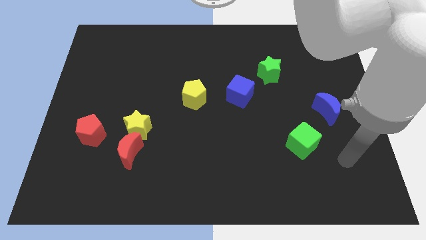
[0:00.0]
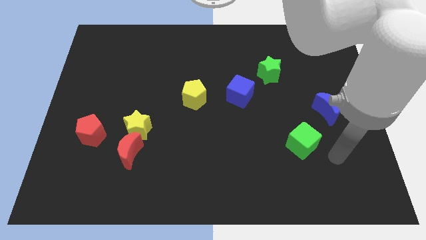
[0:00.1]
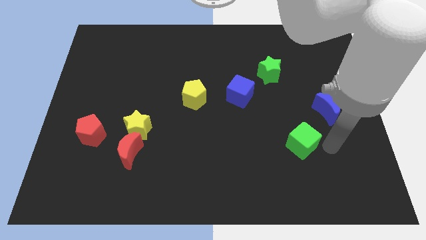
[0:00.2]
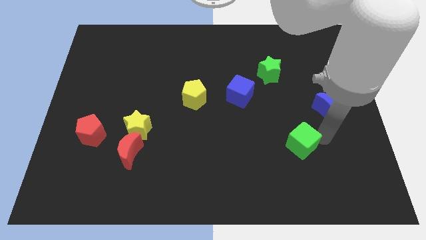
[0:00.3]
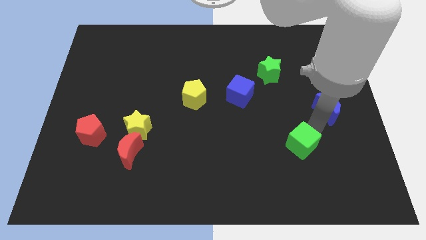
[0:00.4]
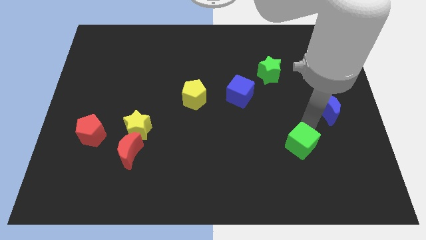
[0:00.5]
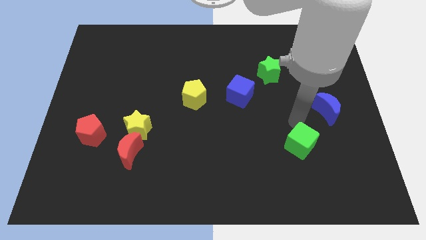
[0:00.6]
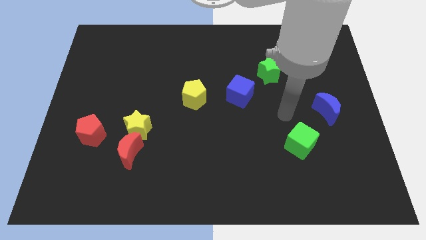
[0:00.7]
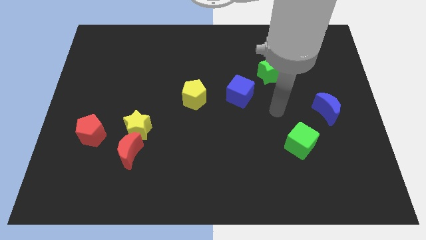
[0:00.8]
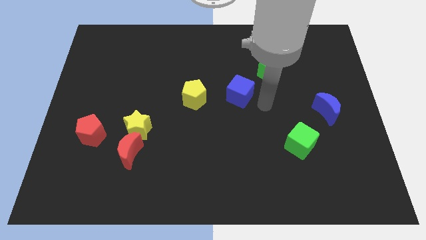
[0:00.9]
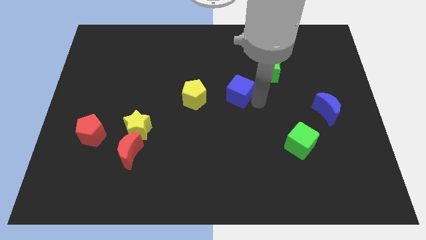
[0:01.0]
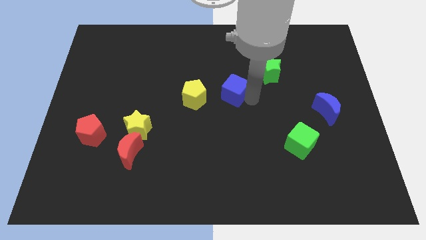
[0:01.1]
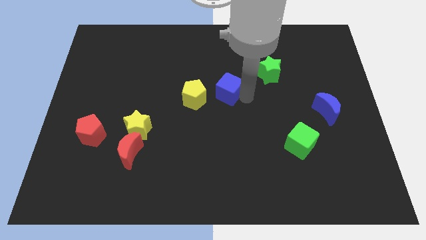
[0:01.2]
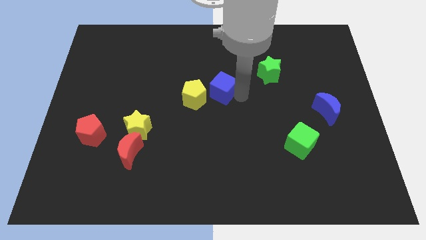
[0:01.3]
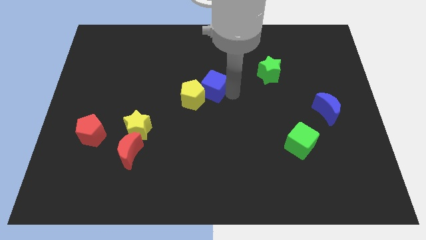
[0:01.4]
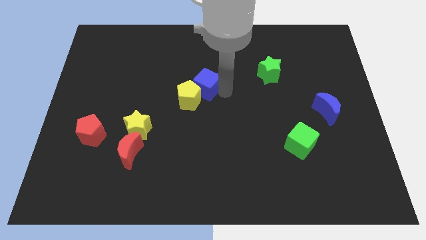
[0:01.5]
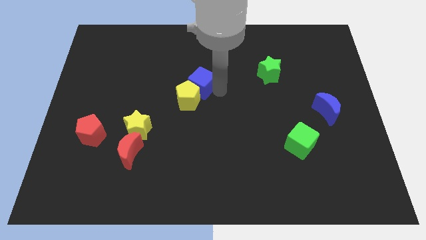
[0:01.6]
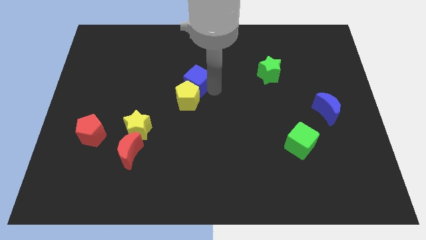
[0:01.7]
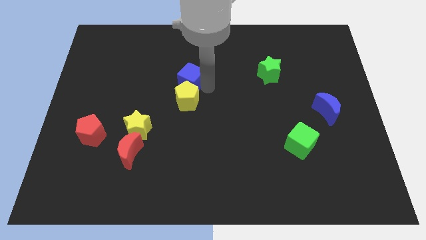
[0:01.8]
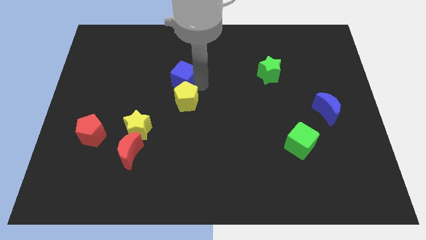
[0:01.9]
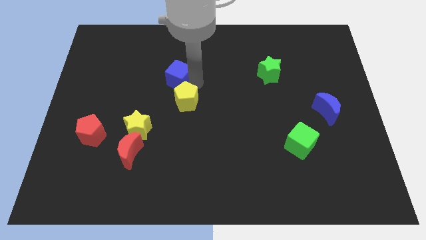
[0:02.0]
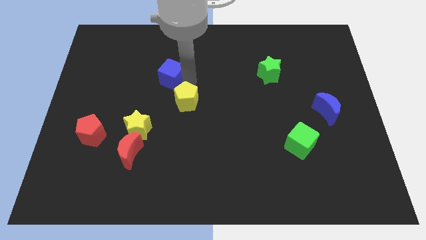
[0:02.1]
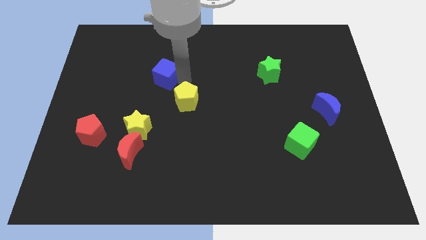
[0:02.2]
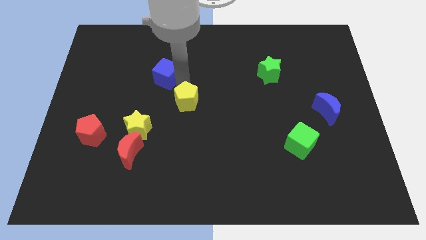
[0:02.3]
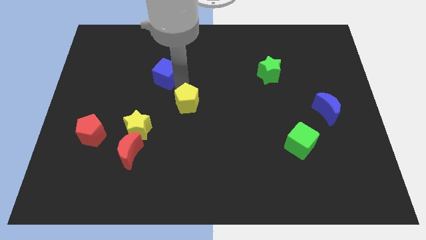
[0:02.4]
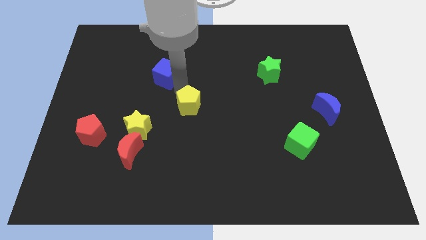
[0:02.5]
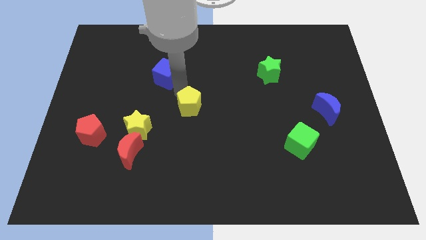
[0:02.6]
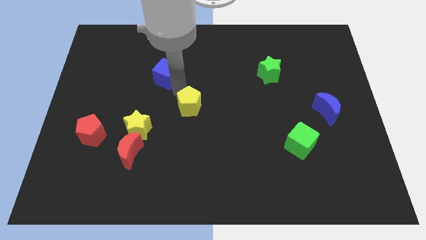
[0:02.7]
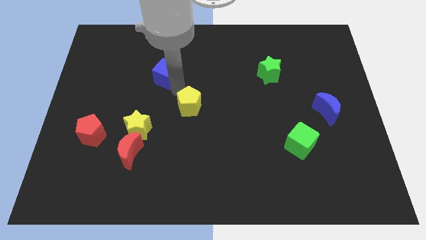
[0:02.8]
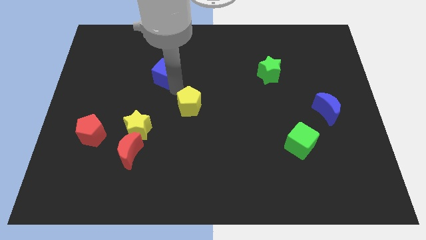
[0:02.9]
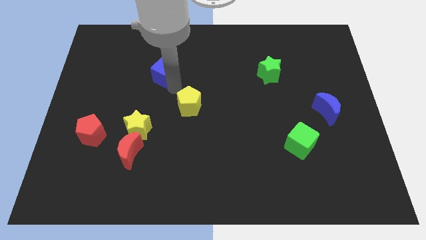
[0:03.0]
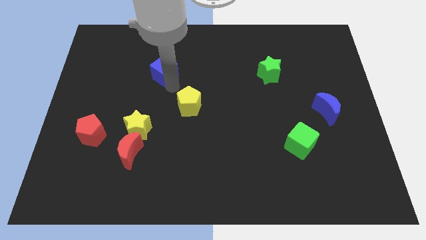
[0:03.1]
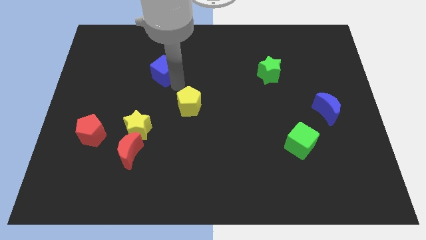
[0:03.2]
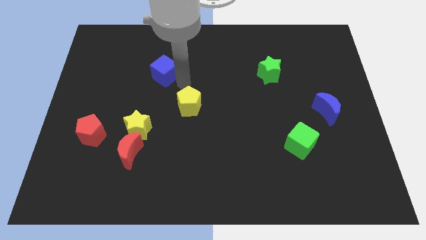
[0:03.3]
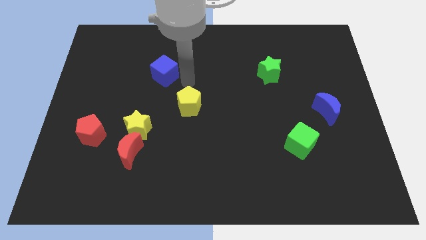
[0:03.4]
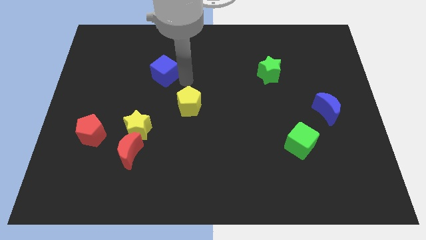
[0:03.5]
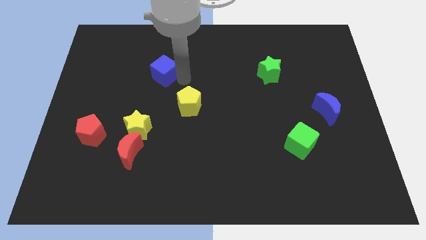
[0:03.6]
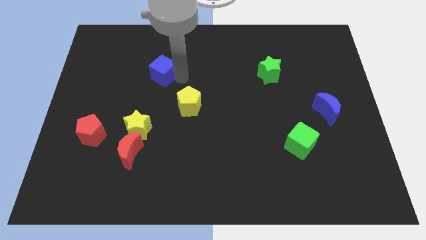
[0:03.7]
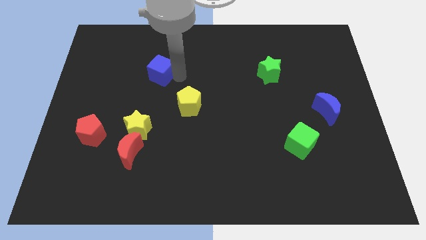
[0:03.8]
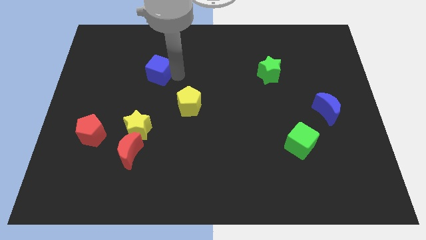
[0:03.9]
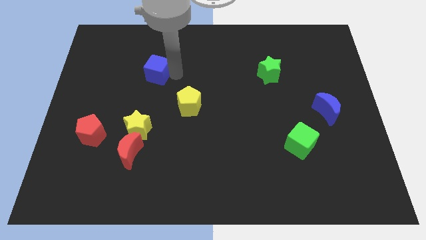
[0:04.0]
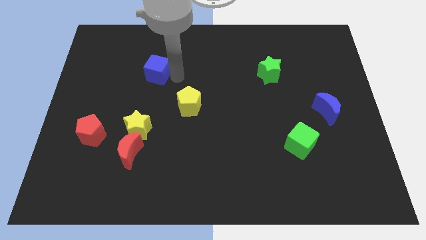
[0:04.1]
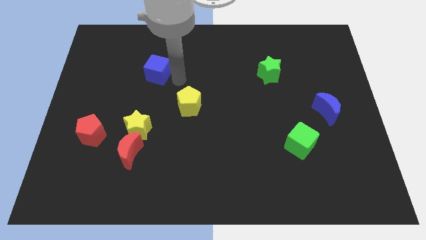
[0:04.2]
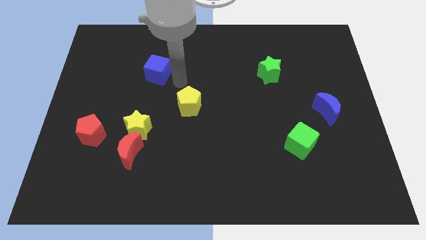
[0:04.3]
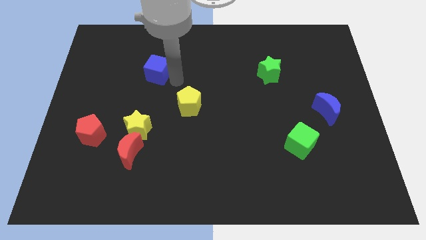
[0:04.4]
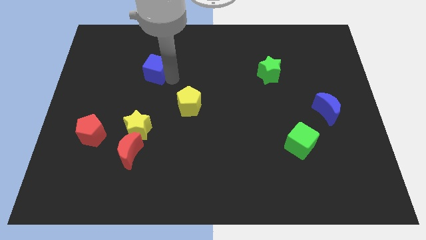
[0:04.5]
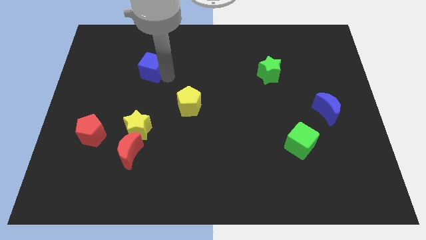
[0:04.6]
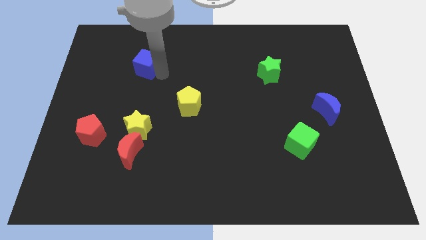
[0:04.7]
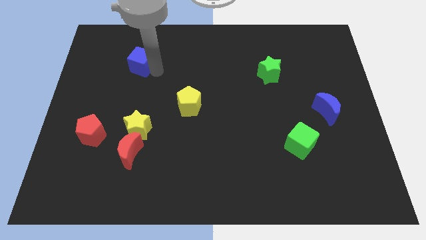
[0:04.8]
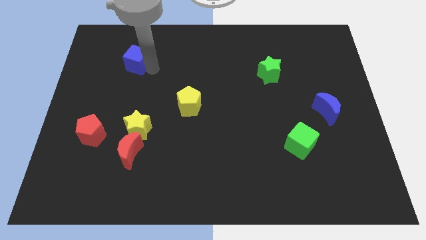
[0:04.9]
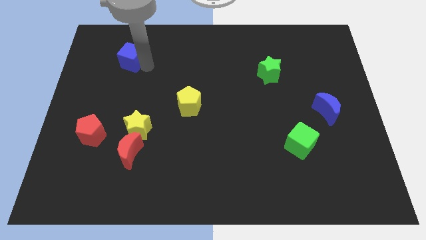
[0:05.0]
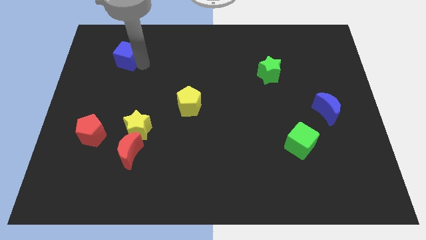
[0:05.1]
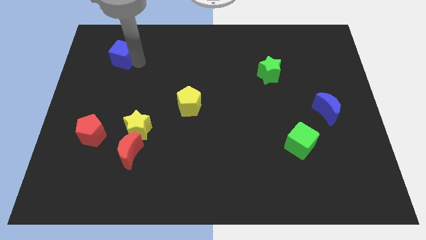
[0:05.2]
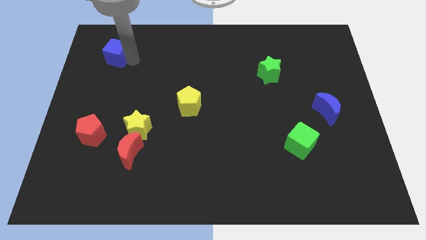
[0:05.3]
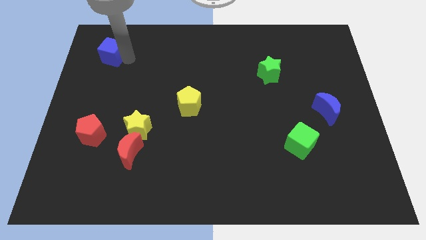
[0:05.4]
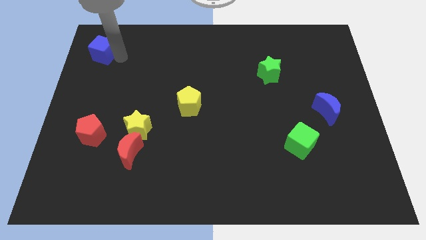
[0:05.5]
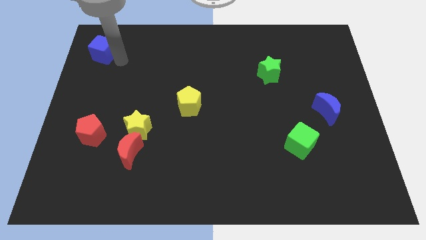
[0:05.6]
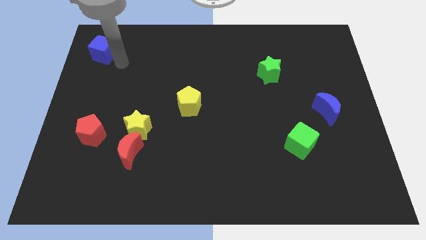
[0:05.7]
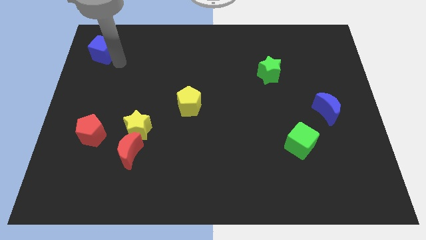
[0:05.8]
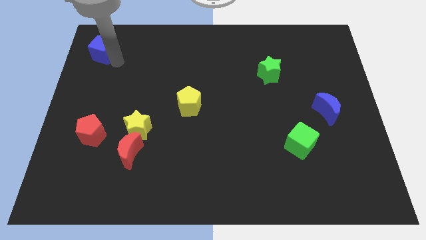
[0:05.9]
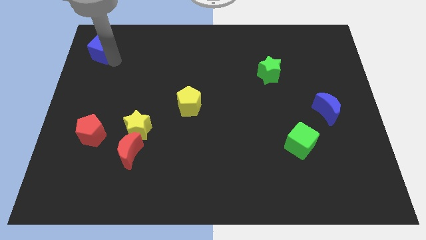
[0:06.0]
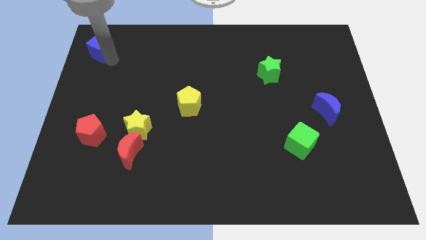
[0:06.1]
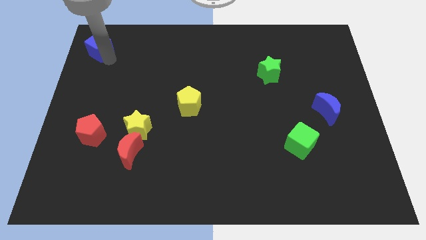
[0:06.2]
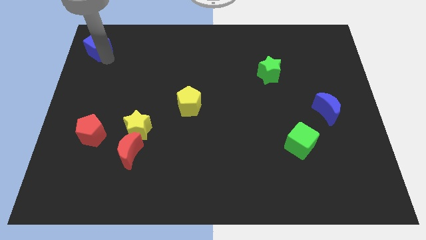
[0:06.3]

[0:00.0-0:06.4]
put the blue cube to the upper left corner

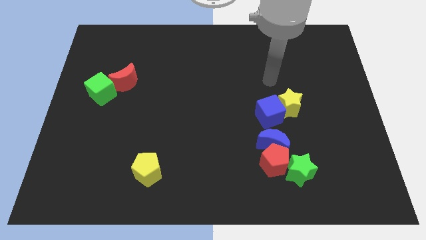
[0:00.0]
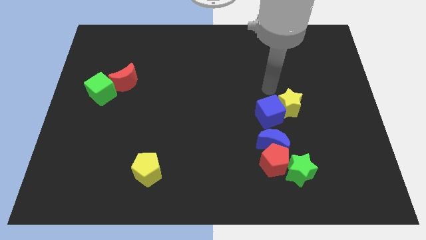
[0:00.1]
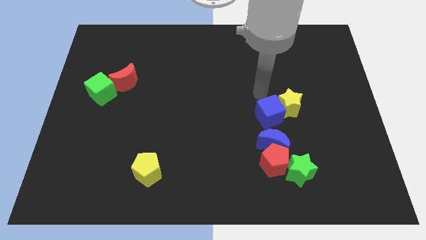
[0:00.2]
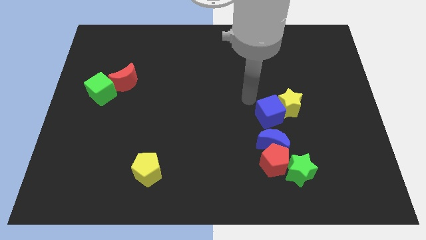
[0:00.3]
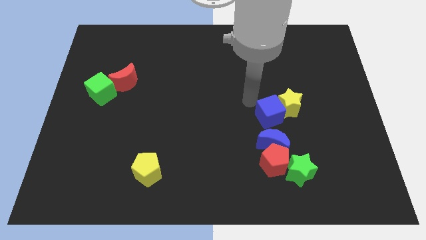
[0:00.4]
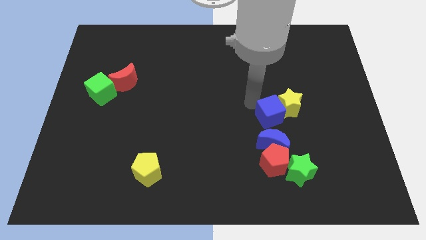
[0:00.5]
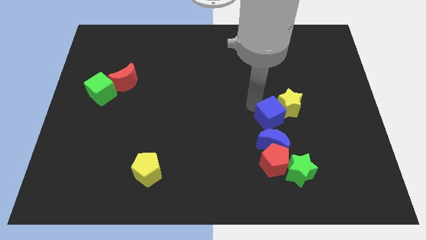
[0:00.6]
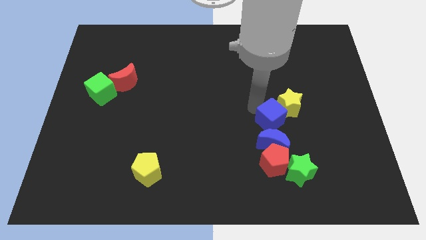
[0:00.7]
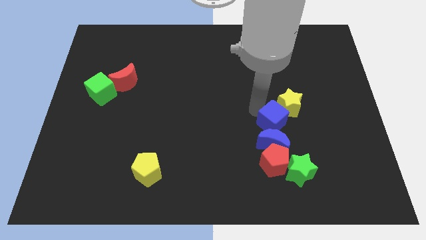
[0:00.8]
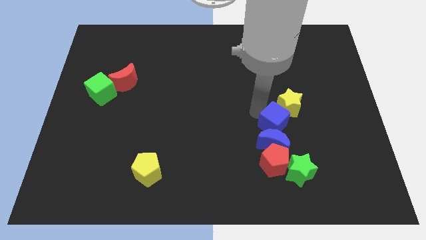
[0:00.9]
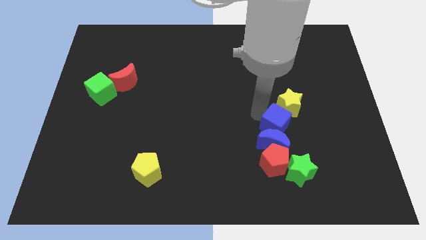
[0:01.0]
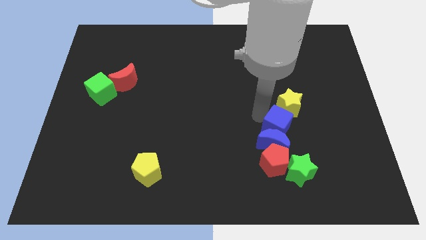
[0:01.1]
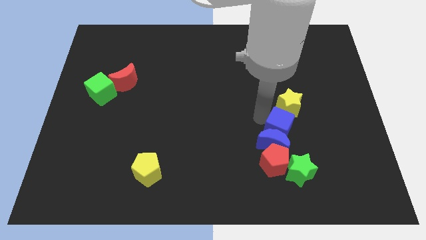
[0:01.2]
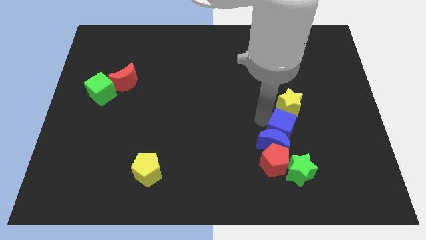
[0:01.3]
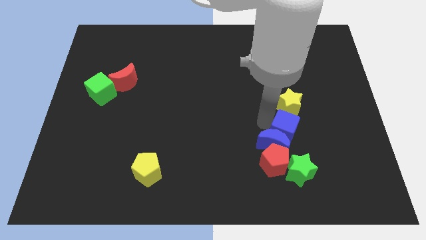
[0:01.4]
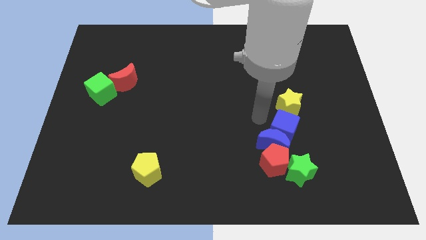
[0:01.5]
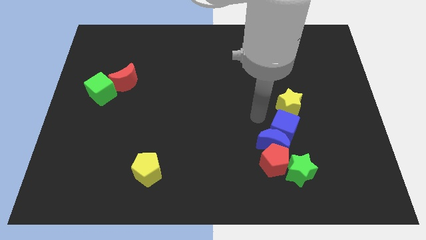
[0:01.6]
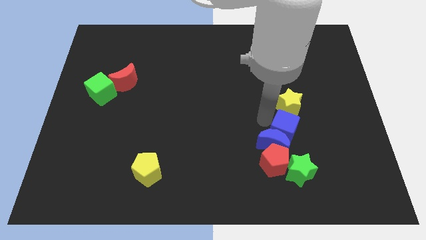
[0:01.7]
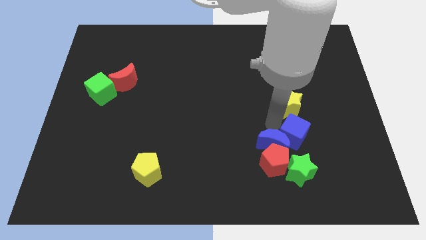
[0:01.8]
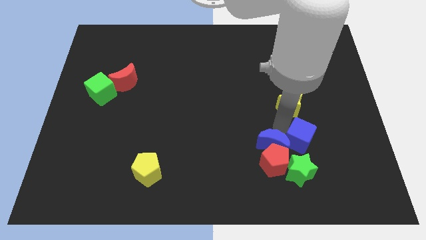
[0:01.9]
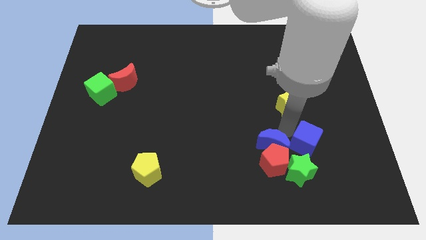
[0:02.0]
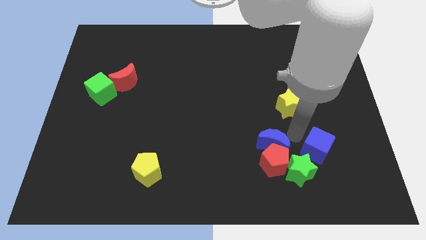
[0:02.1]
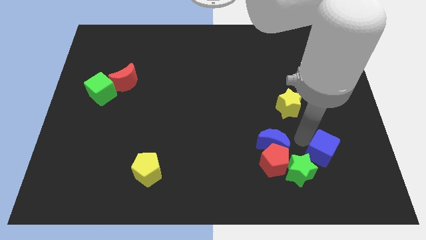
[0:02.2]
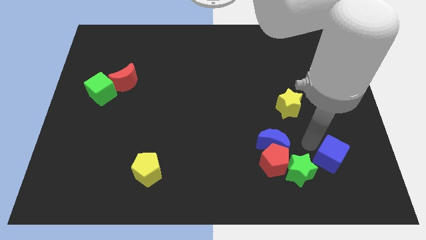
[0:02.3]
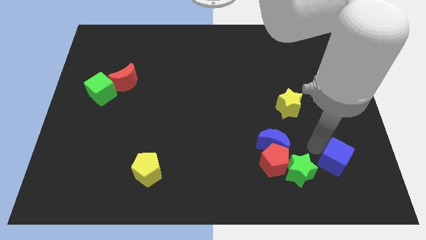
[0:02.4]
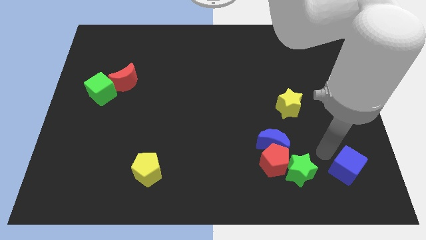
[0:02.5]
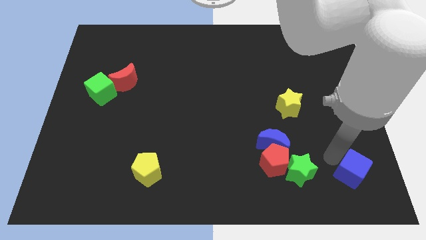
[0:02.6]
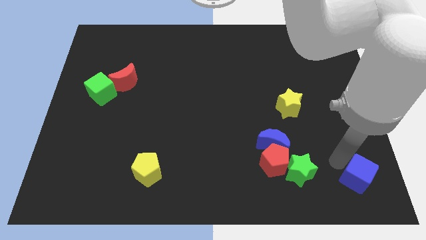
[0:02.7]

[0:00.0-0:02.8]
put the blue cube to the bottom right of the board
